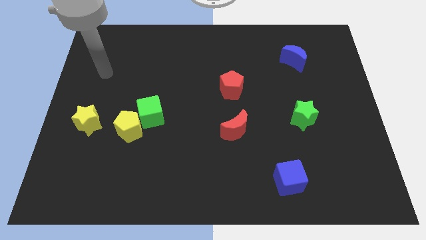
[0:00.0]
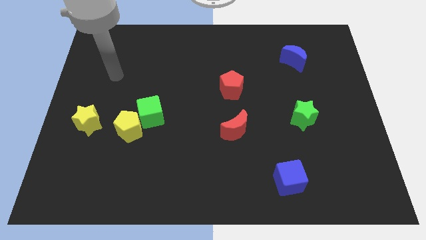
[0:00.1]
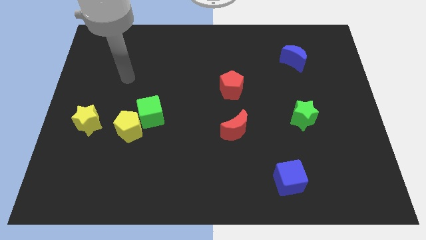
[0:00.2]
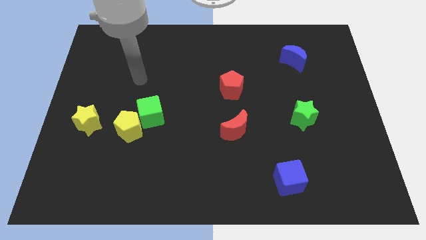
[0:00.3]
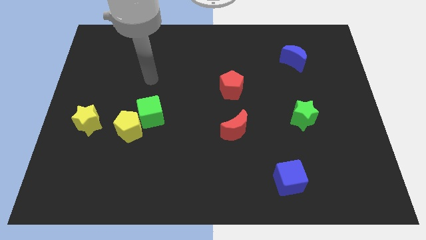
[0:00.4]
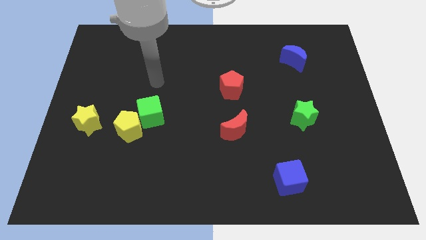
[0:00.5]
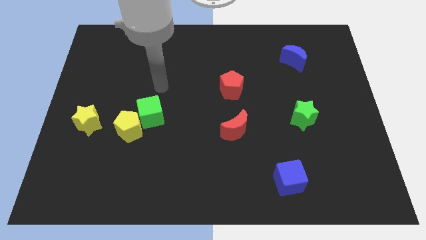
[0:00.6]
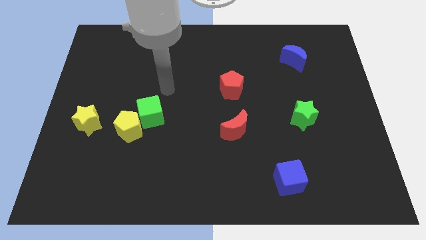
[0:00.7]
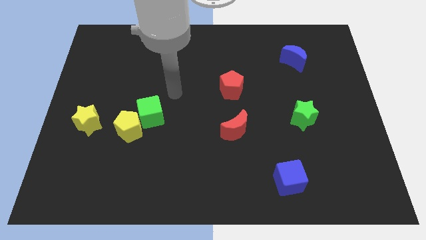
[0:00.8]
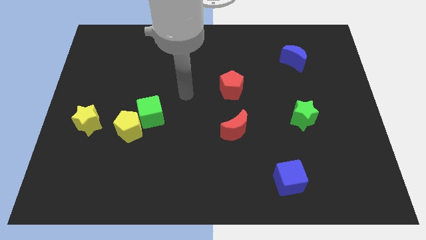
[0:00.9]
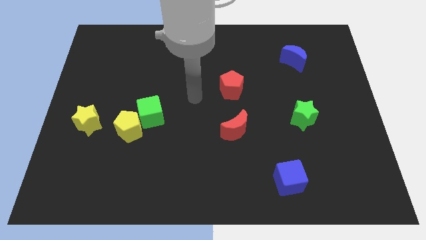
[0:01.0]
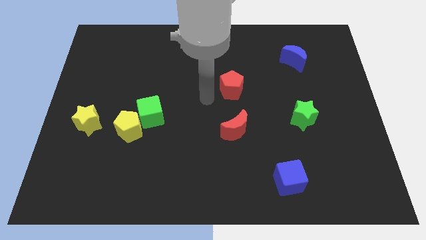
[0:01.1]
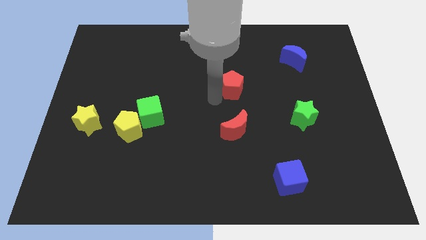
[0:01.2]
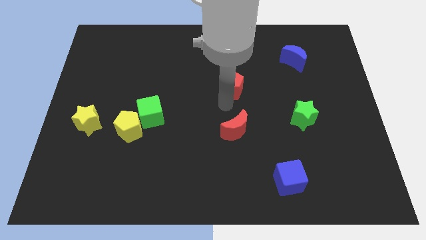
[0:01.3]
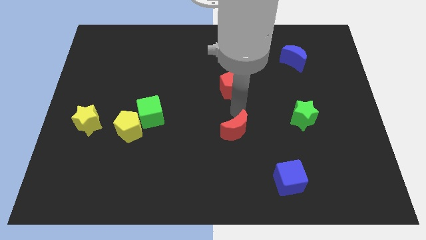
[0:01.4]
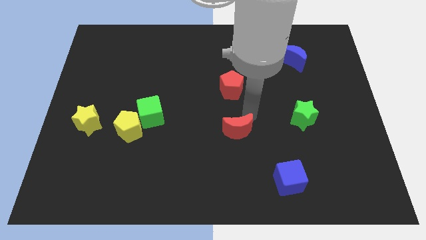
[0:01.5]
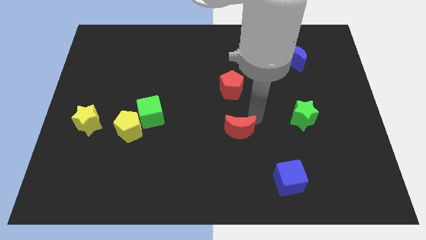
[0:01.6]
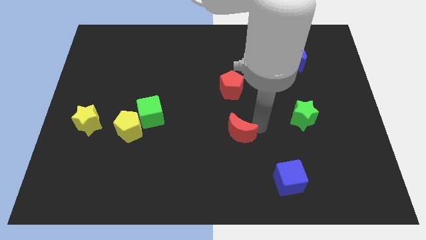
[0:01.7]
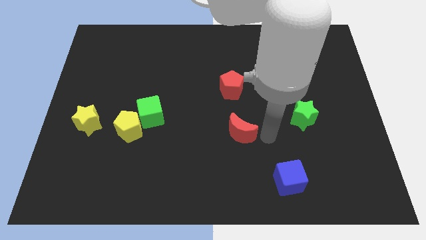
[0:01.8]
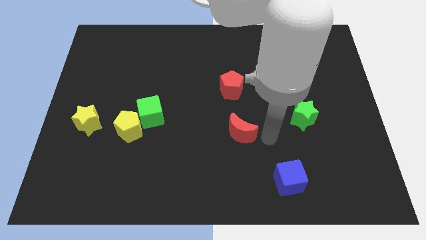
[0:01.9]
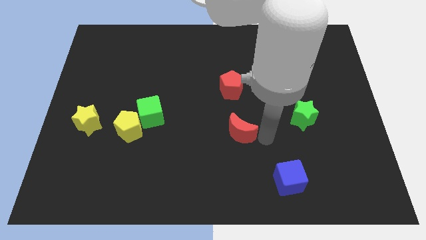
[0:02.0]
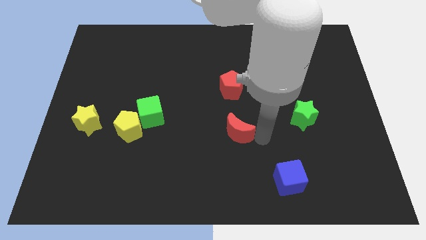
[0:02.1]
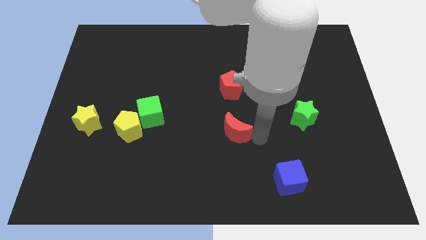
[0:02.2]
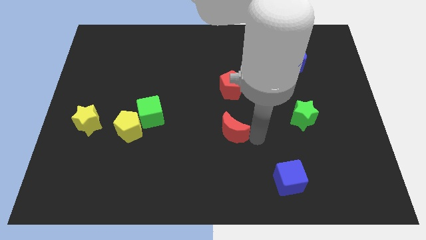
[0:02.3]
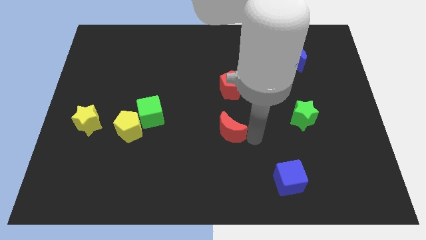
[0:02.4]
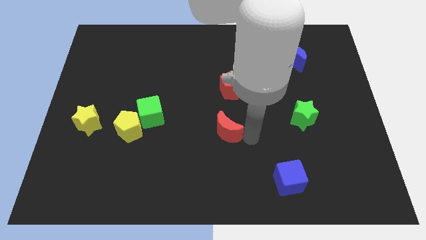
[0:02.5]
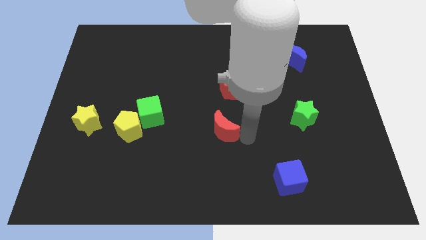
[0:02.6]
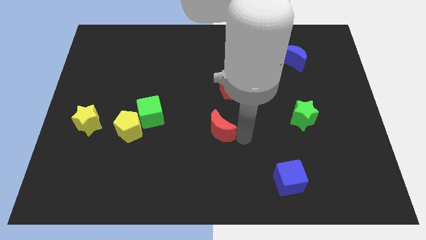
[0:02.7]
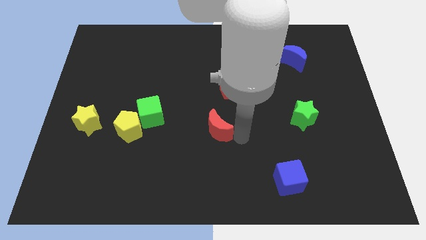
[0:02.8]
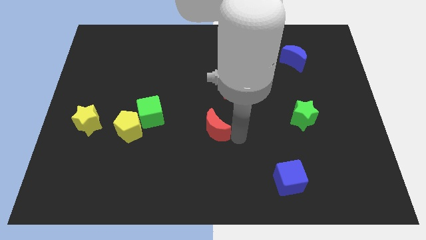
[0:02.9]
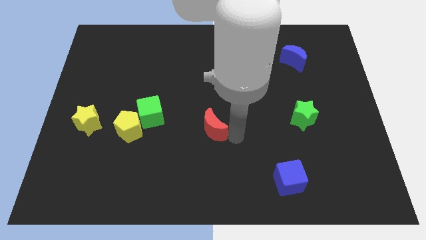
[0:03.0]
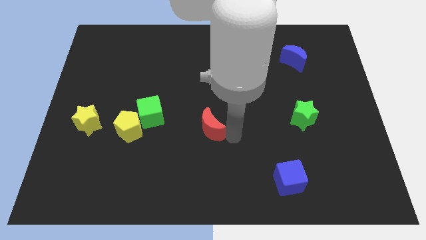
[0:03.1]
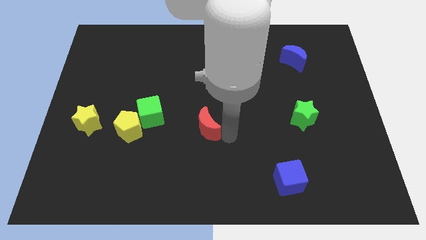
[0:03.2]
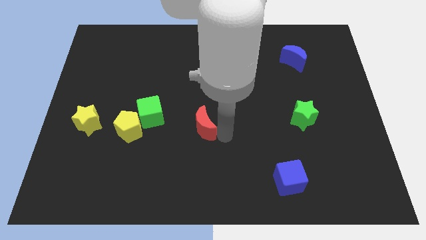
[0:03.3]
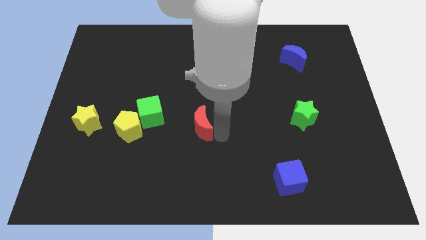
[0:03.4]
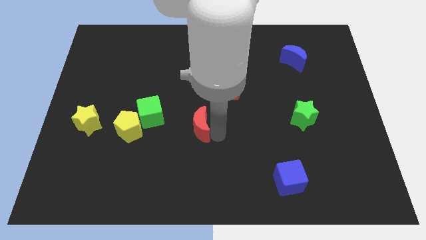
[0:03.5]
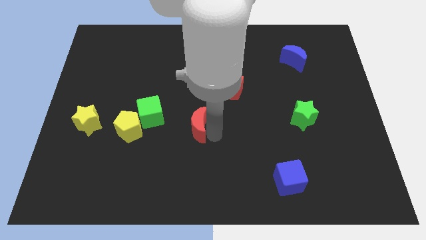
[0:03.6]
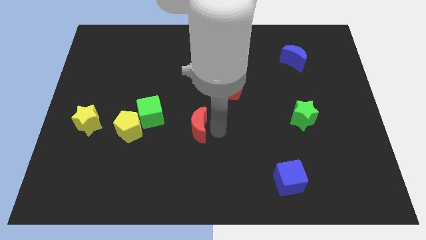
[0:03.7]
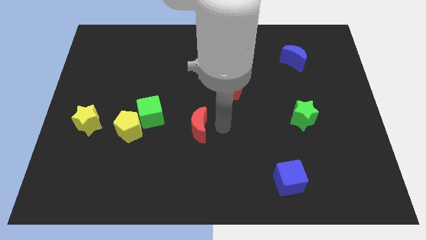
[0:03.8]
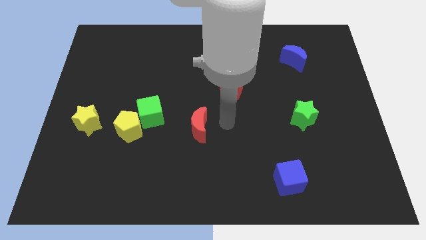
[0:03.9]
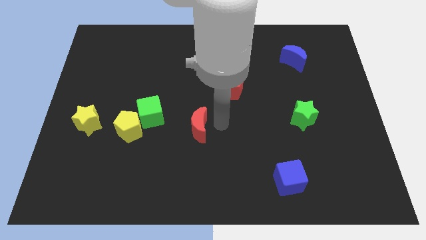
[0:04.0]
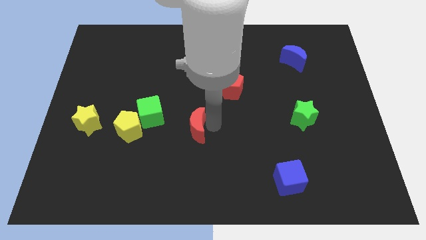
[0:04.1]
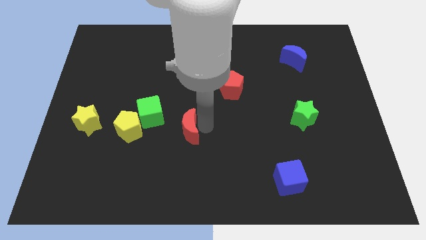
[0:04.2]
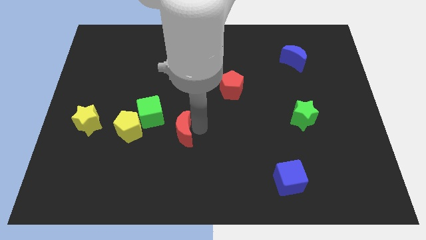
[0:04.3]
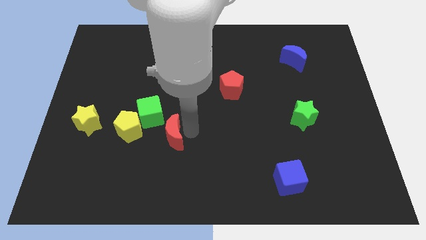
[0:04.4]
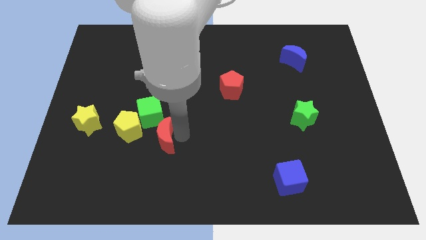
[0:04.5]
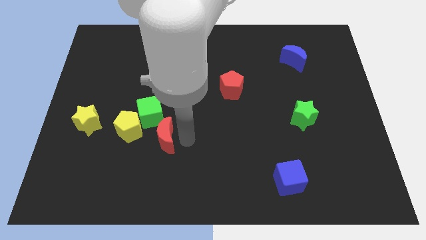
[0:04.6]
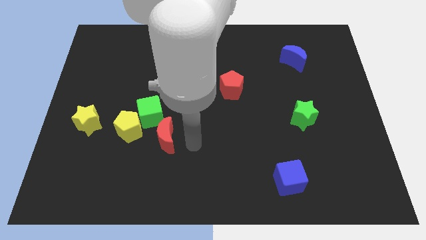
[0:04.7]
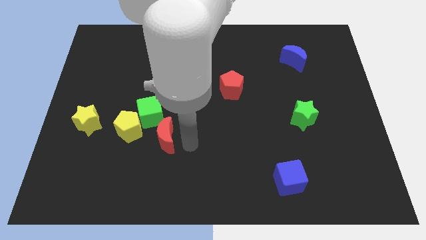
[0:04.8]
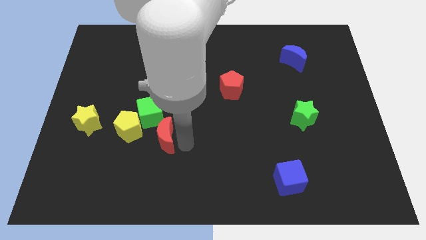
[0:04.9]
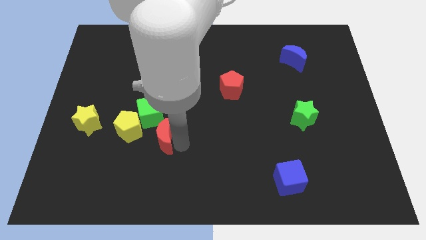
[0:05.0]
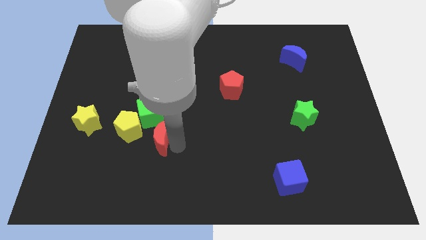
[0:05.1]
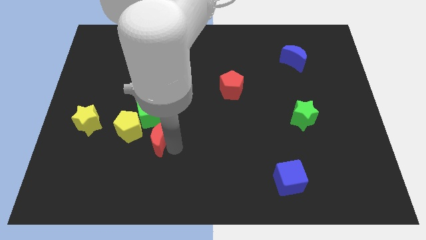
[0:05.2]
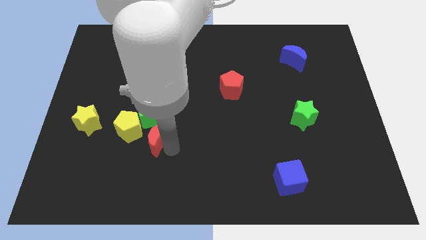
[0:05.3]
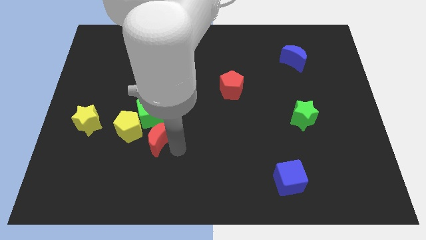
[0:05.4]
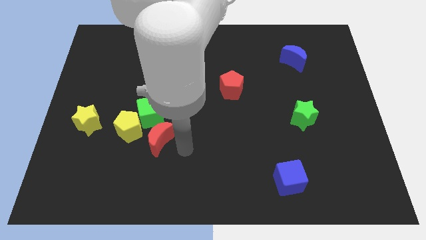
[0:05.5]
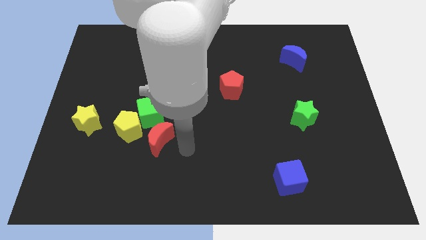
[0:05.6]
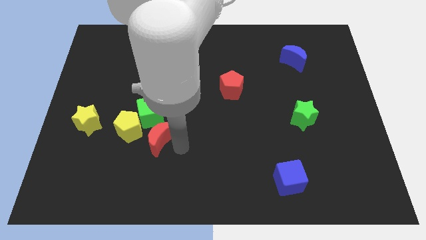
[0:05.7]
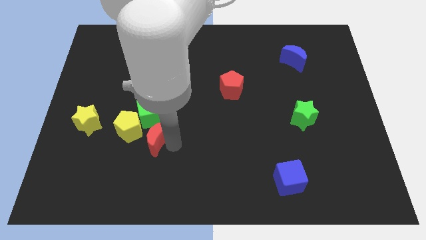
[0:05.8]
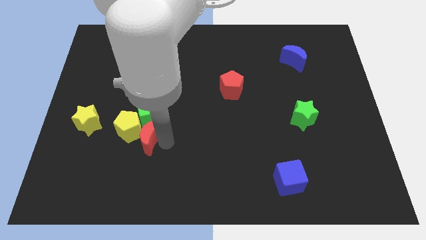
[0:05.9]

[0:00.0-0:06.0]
slide the red moon towards the yellow pentagon

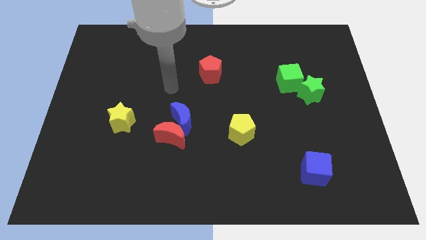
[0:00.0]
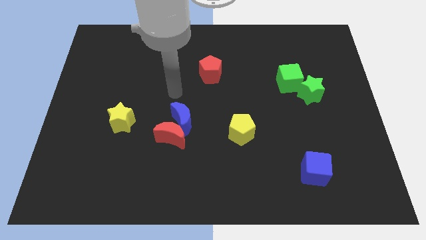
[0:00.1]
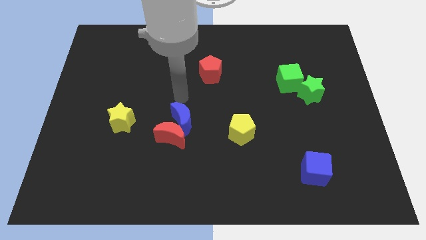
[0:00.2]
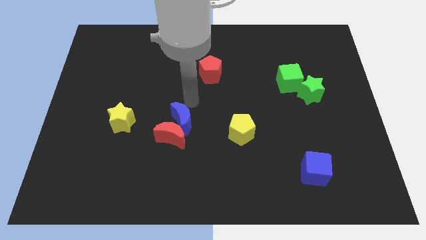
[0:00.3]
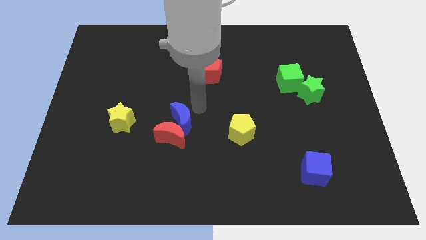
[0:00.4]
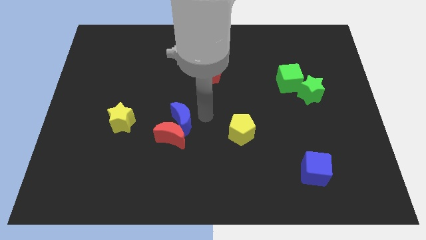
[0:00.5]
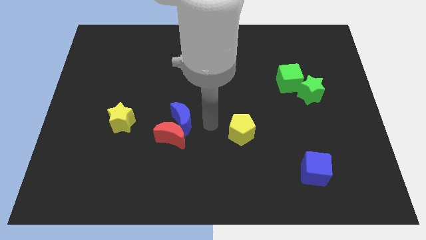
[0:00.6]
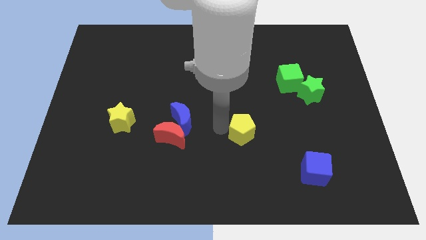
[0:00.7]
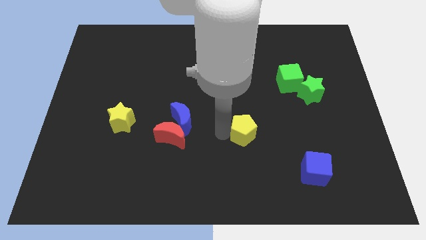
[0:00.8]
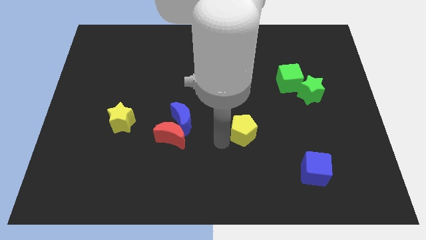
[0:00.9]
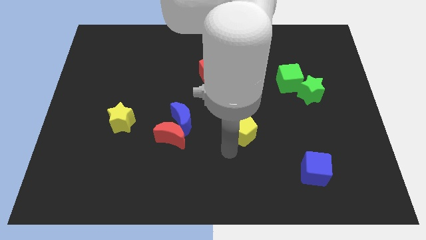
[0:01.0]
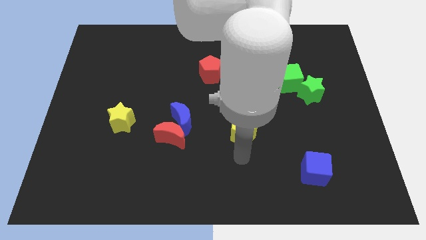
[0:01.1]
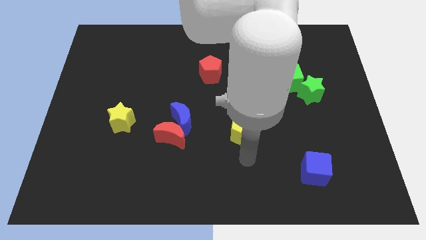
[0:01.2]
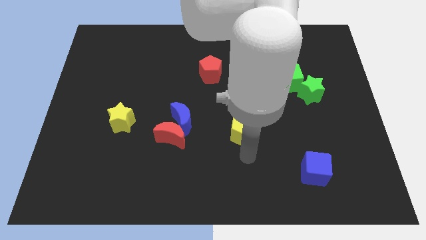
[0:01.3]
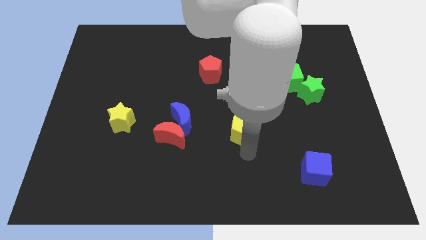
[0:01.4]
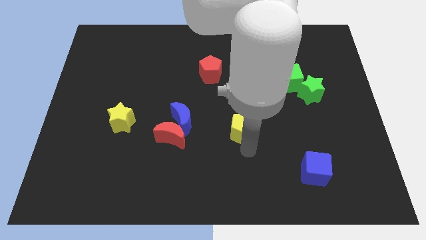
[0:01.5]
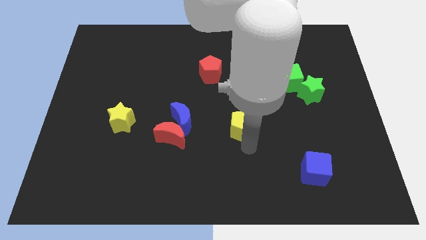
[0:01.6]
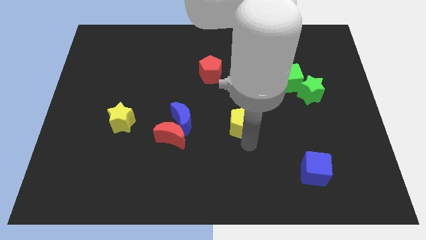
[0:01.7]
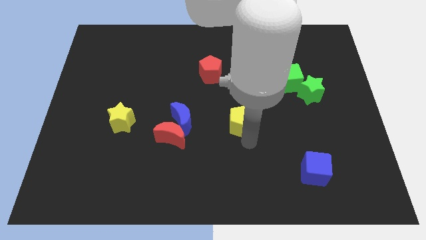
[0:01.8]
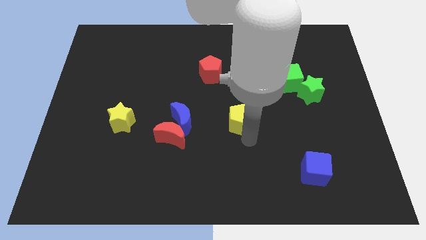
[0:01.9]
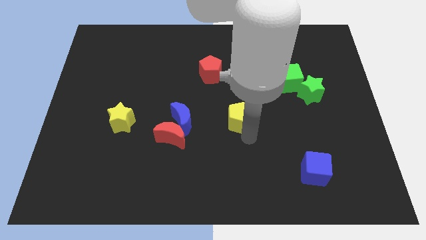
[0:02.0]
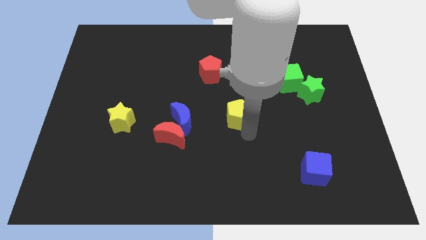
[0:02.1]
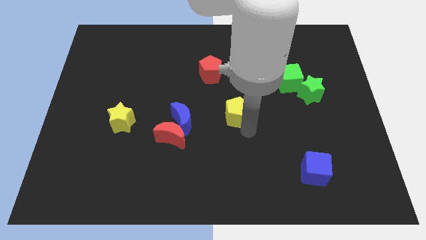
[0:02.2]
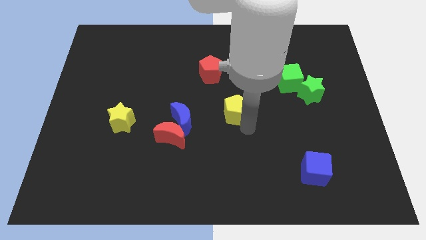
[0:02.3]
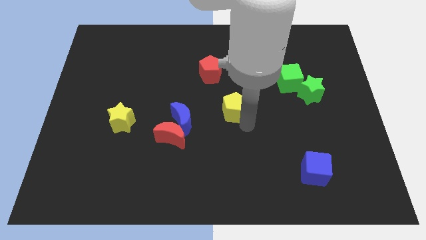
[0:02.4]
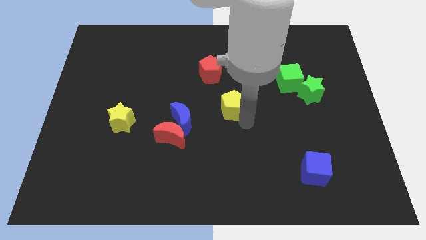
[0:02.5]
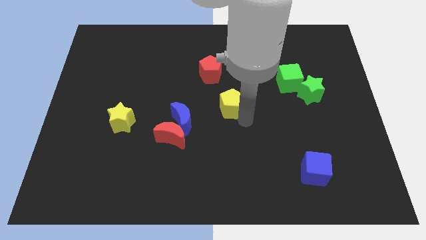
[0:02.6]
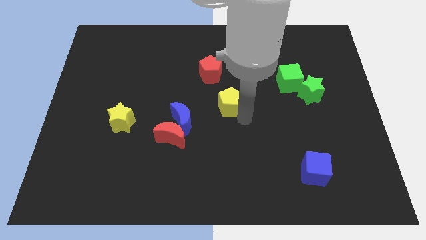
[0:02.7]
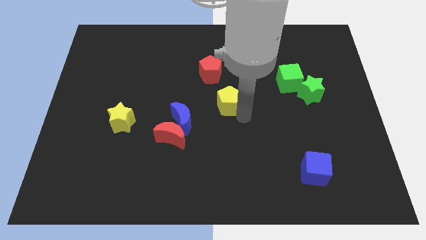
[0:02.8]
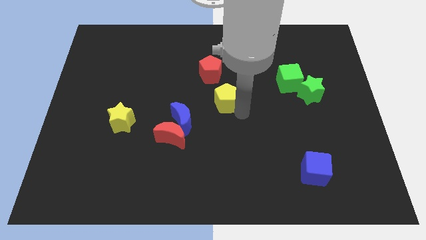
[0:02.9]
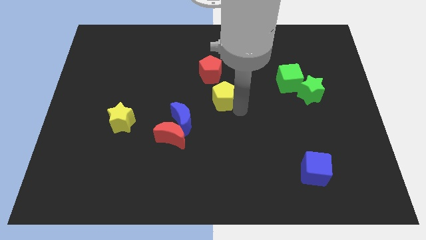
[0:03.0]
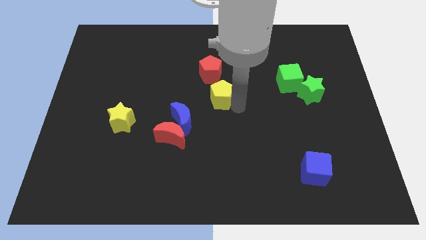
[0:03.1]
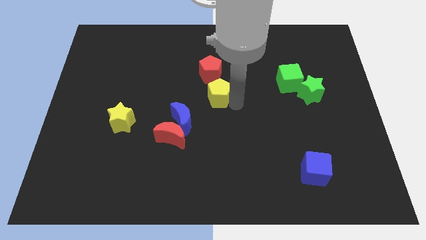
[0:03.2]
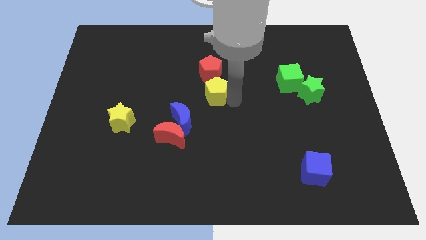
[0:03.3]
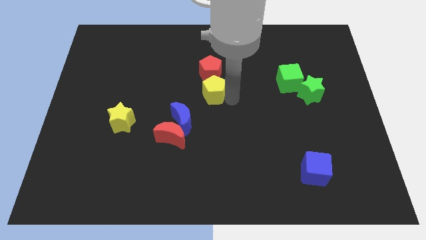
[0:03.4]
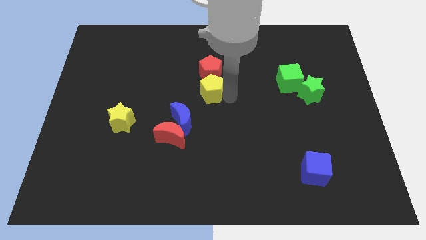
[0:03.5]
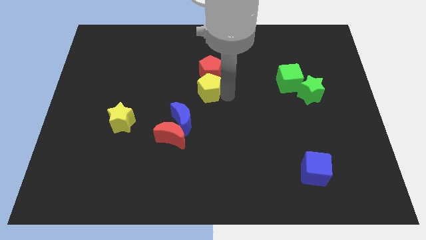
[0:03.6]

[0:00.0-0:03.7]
put the yellow pentagon to the red pentagon
